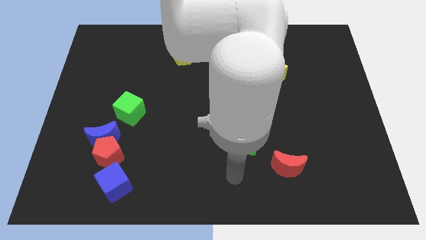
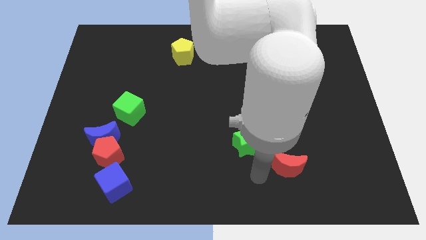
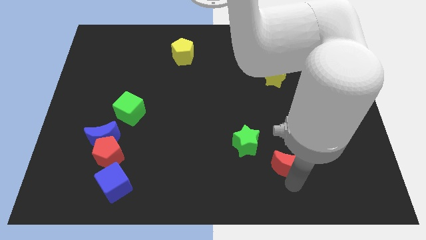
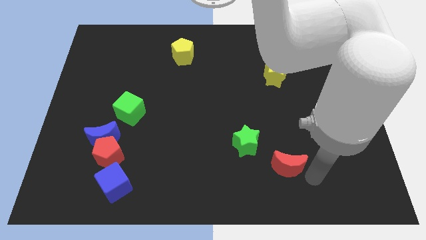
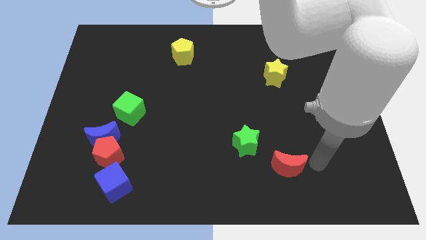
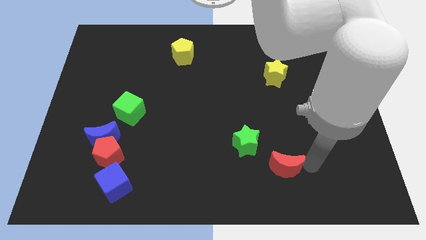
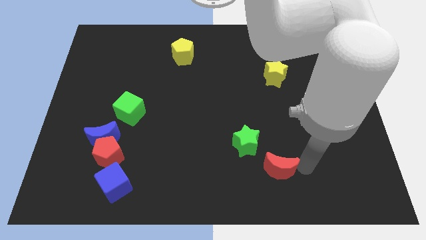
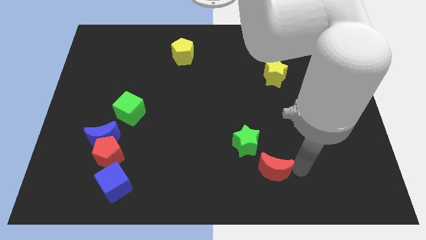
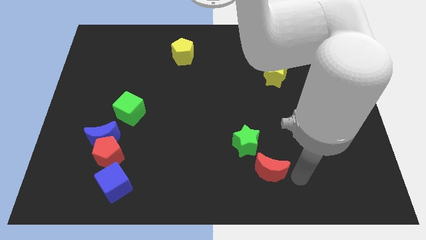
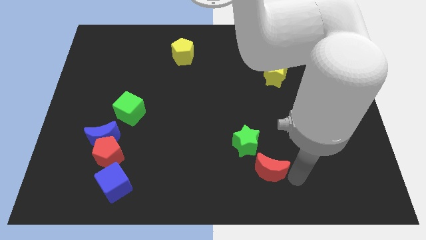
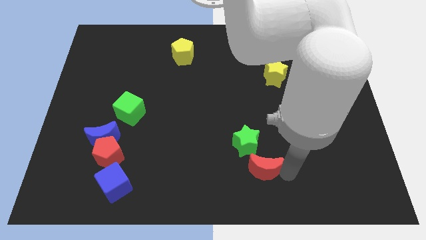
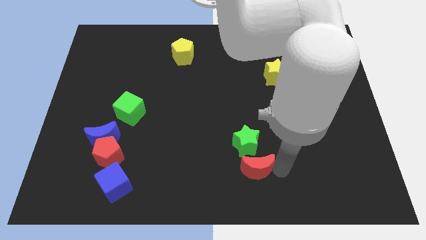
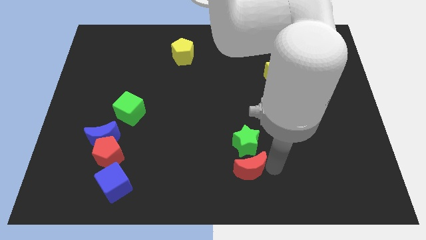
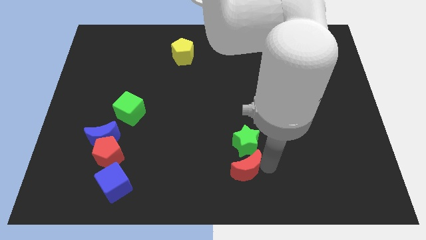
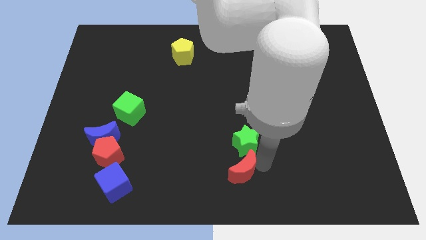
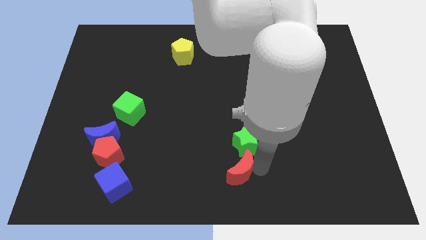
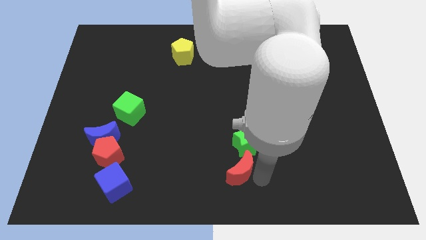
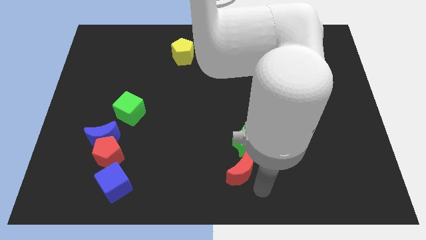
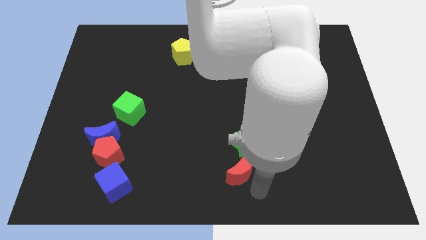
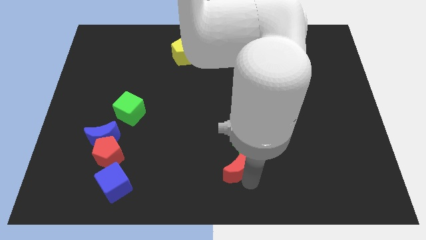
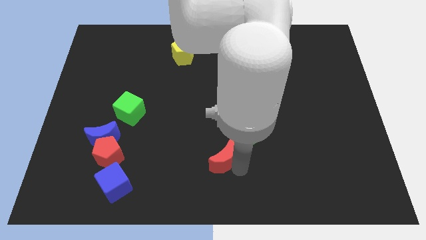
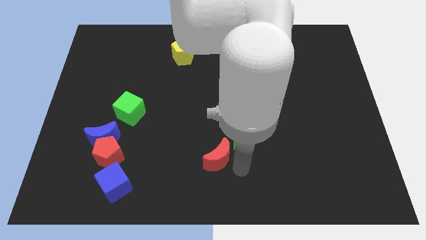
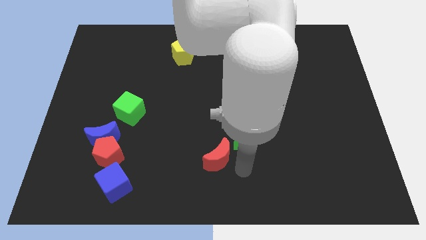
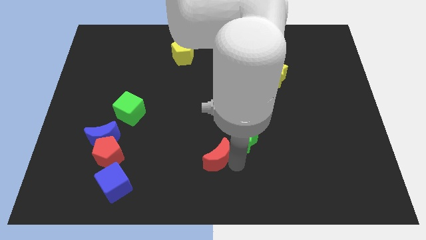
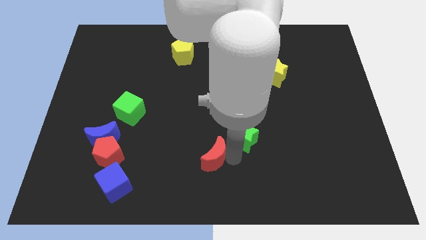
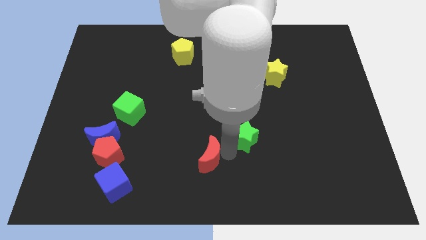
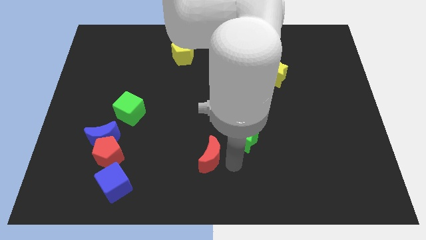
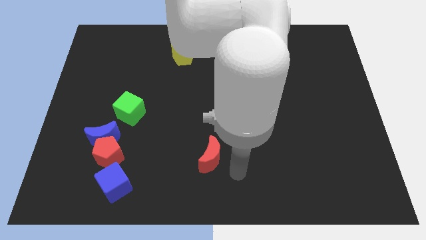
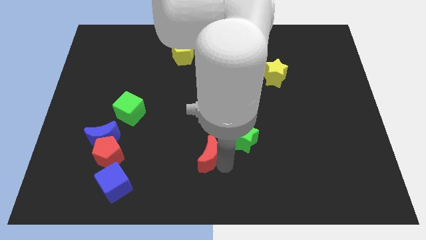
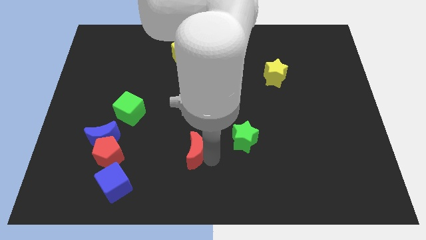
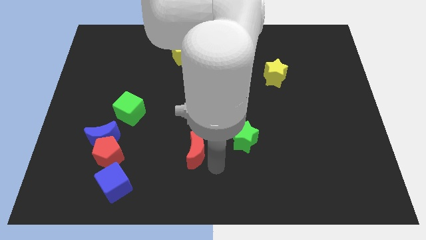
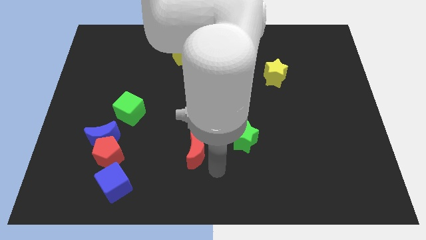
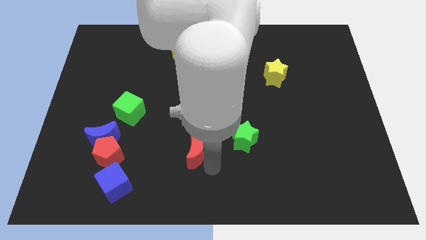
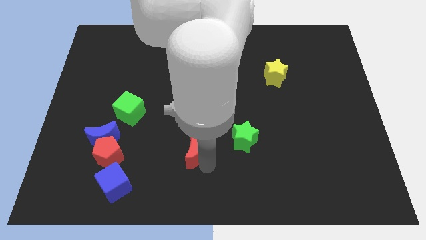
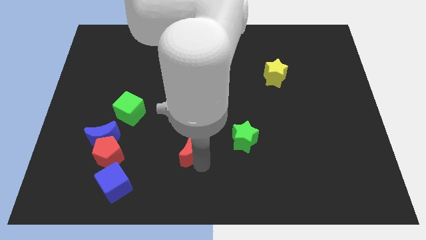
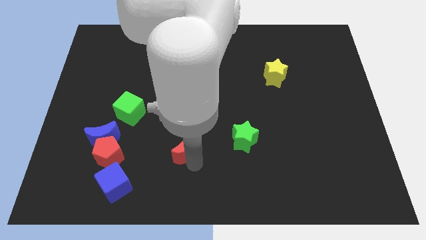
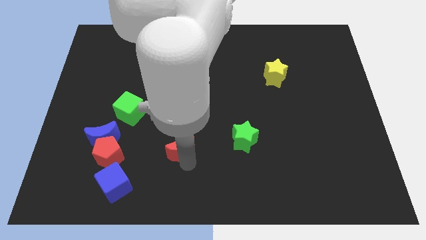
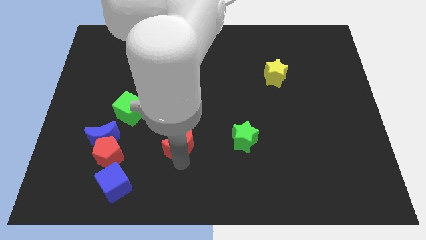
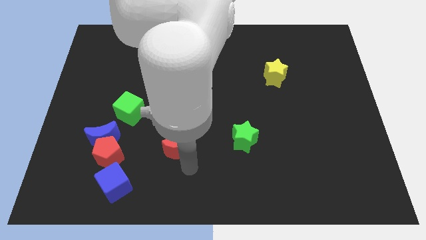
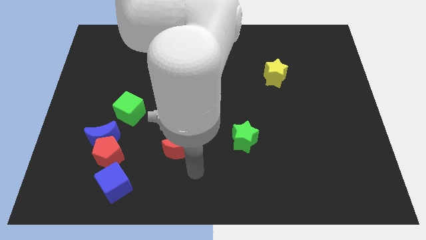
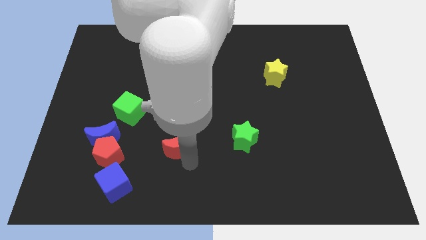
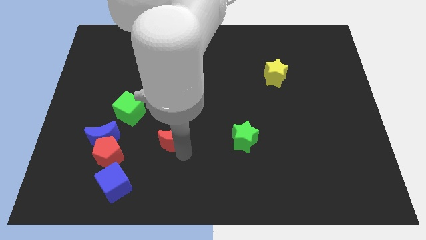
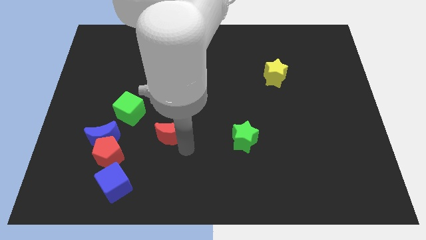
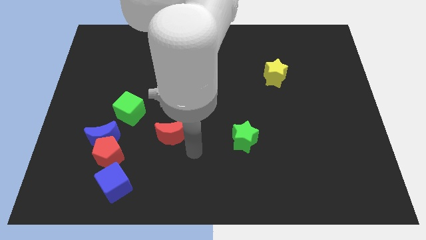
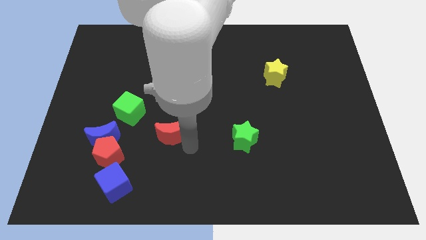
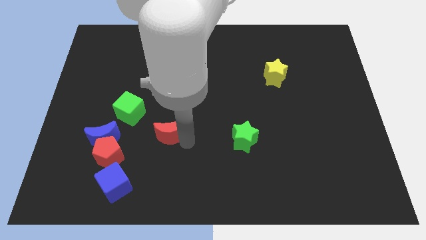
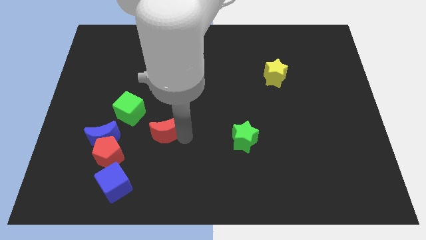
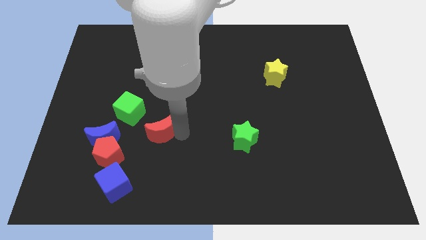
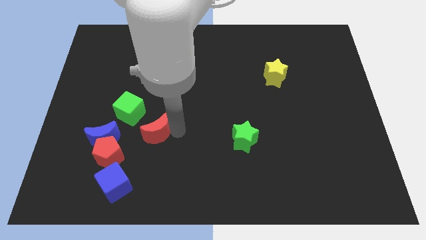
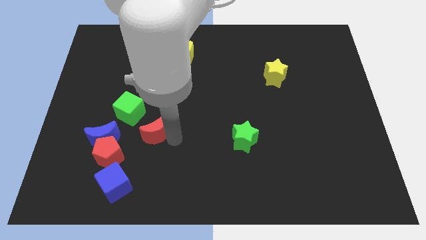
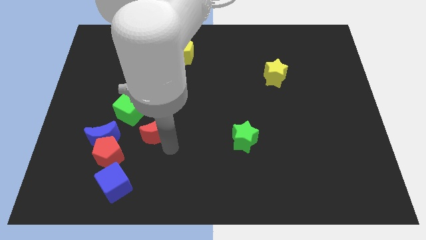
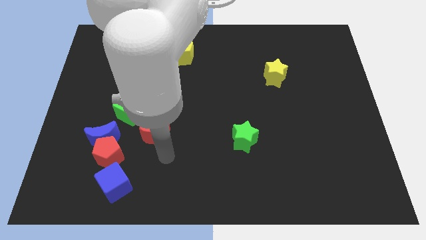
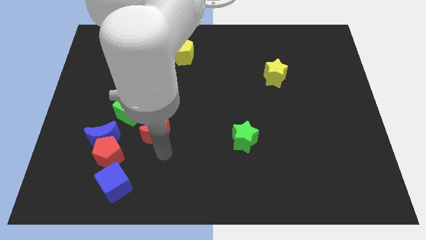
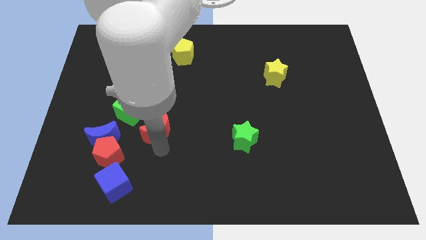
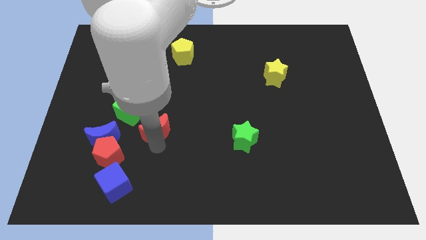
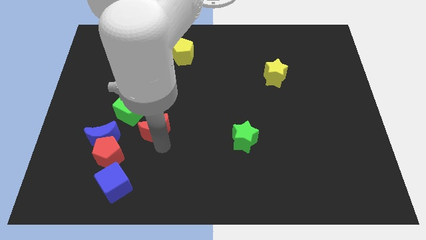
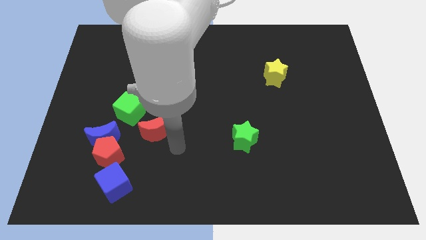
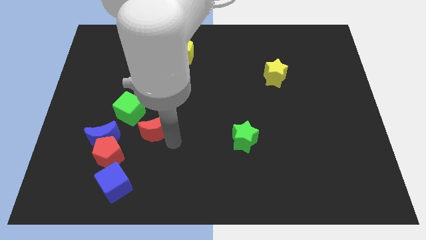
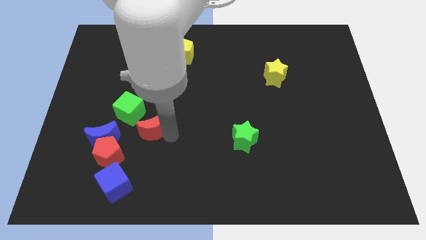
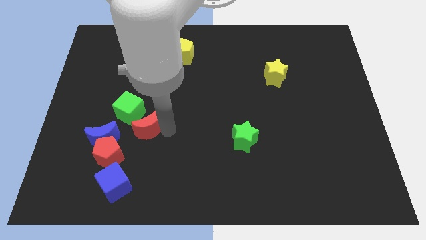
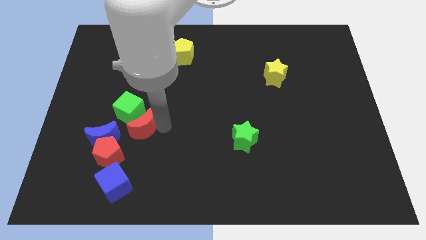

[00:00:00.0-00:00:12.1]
slide the red moon to the green cube

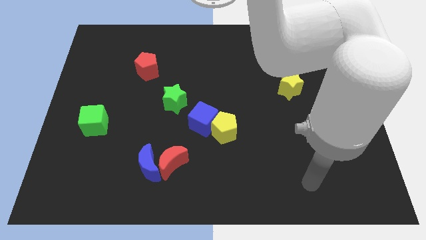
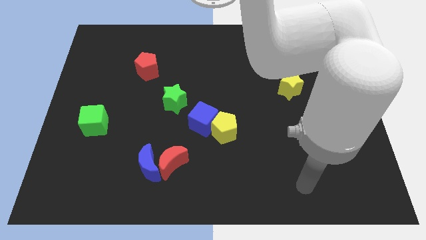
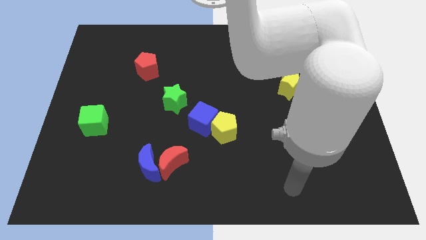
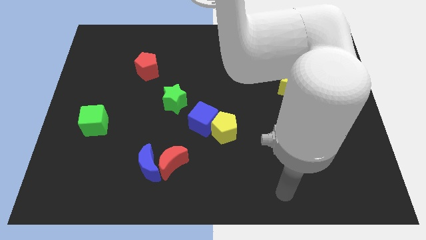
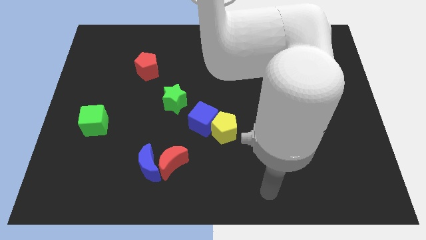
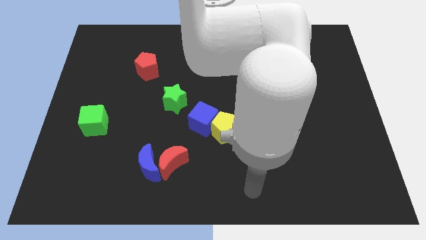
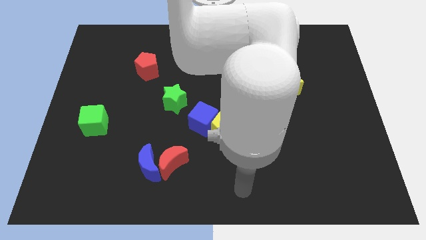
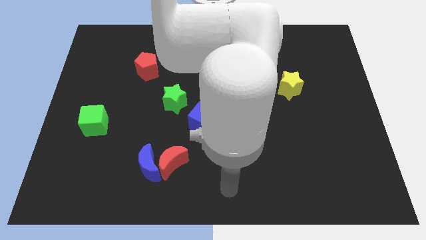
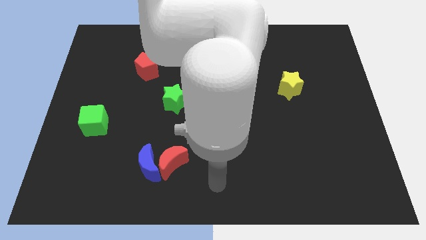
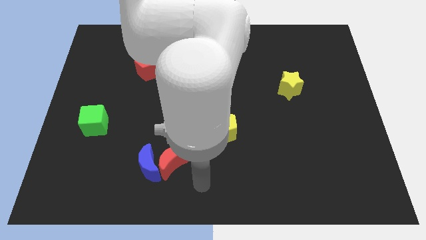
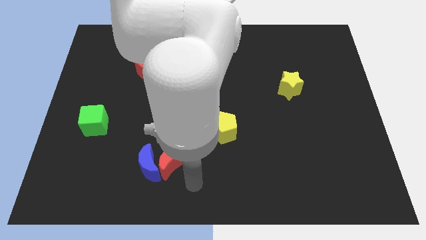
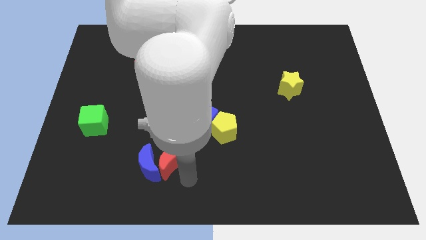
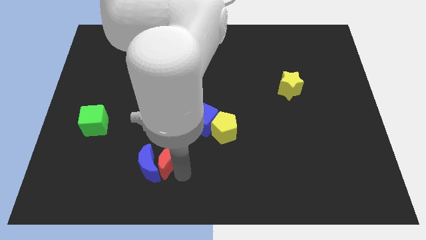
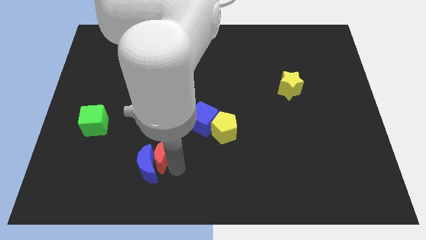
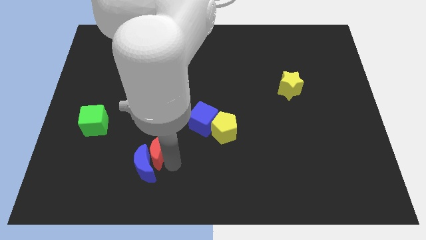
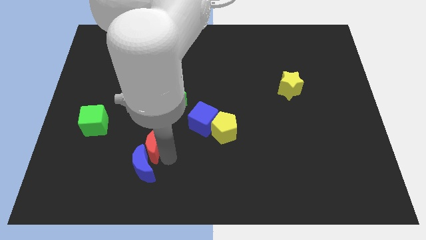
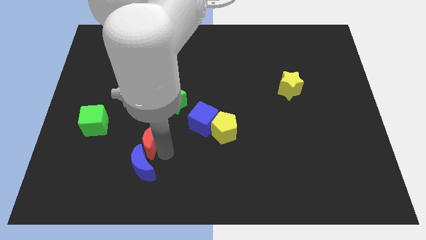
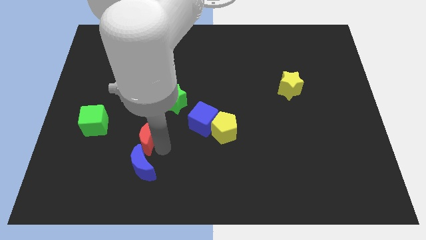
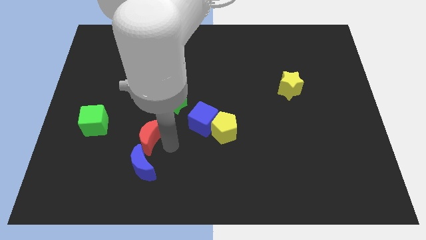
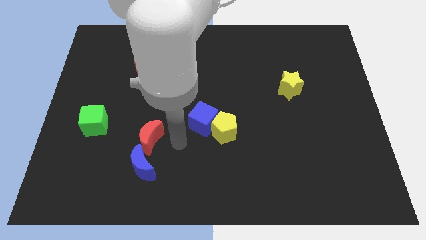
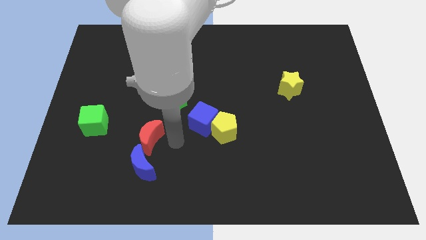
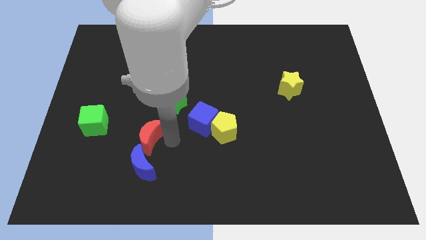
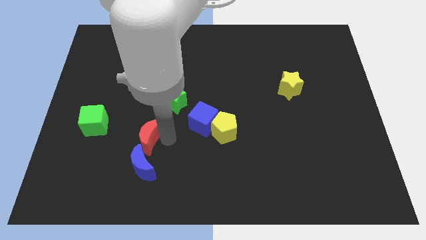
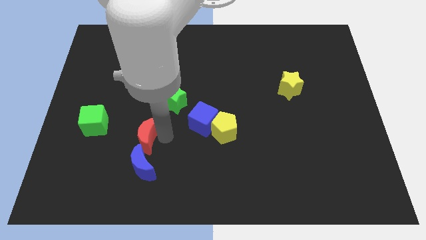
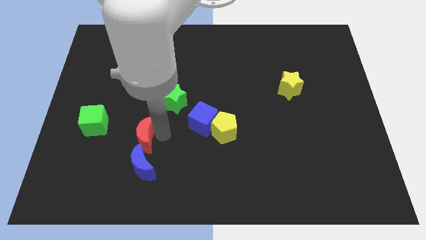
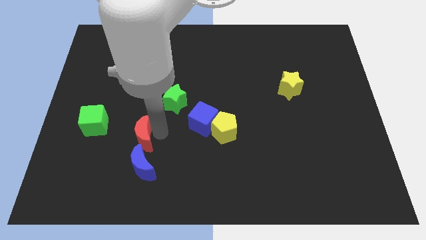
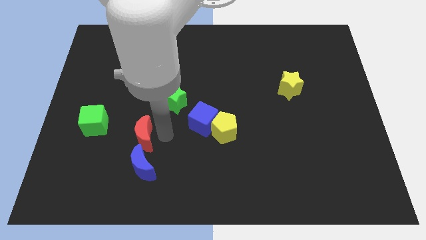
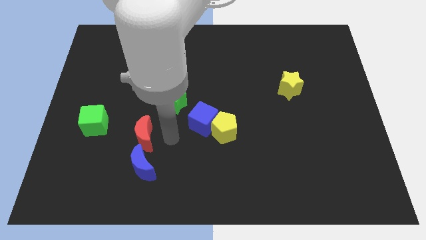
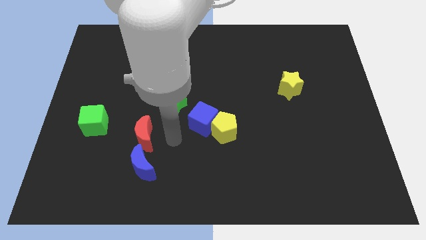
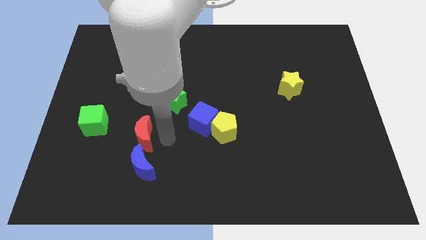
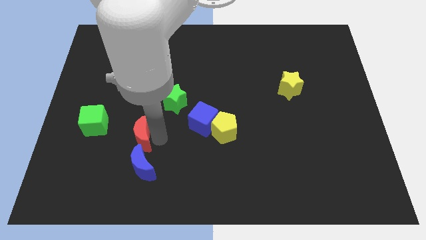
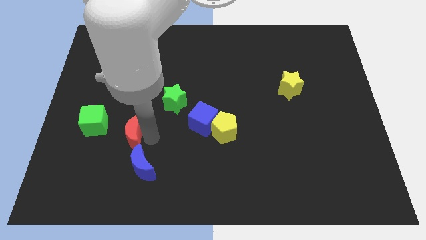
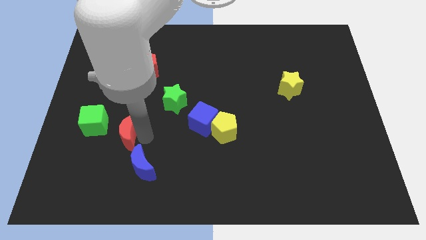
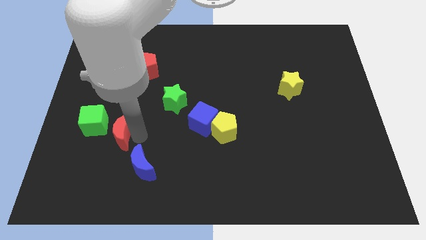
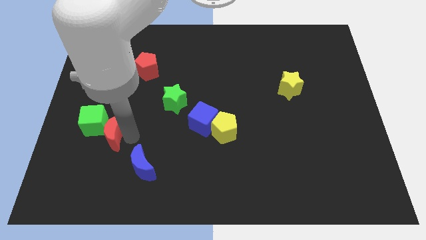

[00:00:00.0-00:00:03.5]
put the red moon to the green cube
